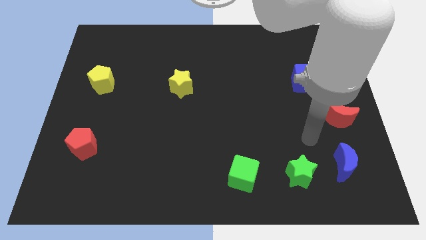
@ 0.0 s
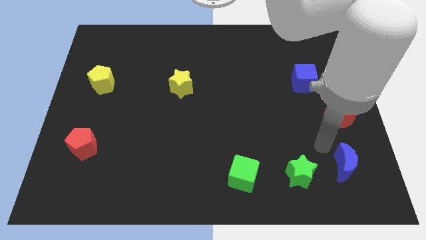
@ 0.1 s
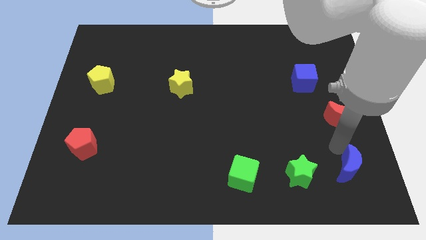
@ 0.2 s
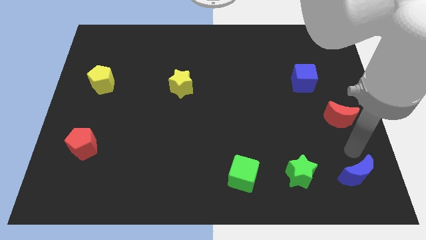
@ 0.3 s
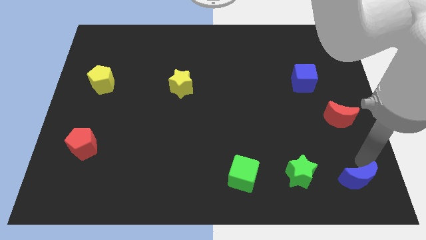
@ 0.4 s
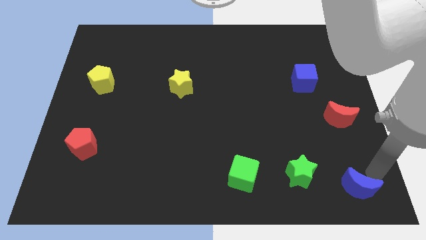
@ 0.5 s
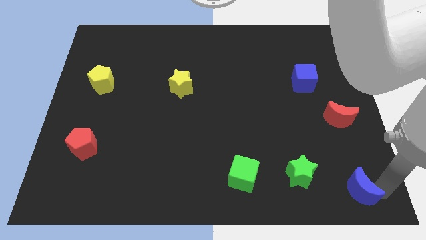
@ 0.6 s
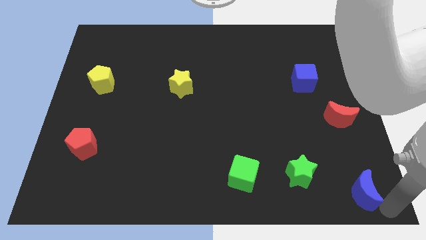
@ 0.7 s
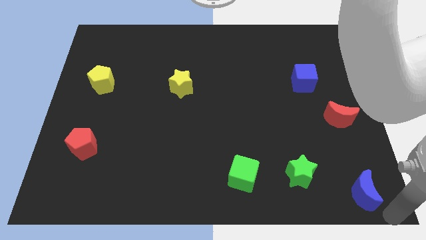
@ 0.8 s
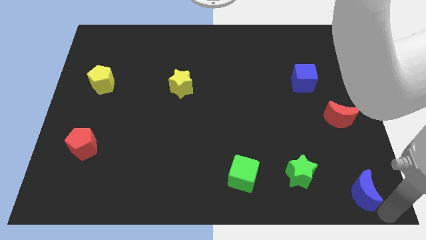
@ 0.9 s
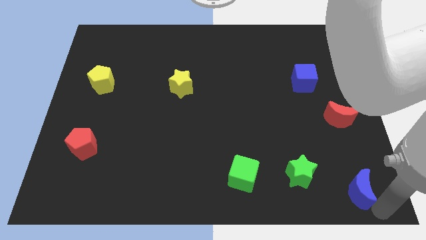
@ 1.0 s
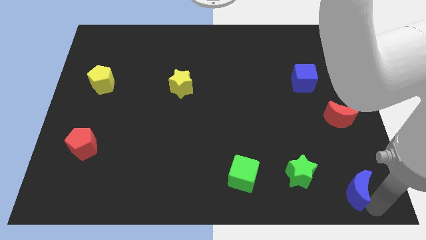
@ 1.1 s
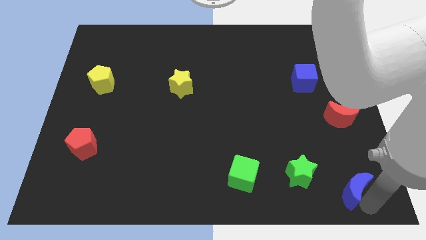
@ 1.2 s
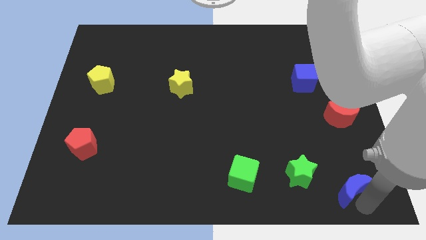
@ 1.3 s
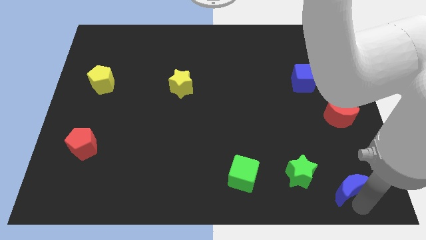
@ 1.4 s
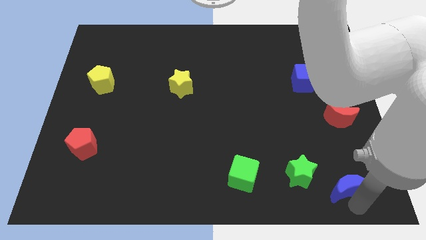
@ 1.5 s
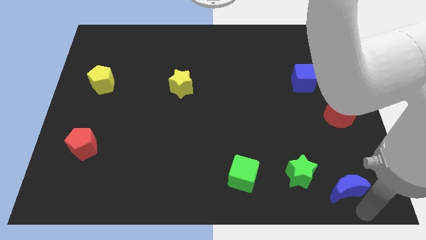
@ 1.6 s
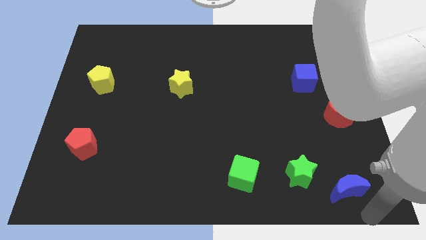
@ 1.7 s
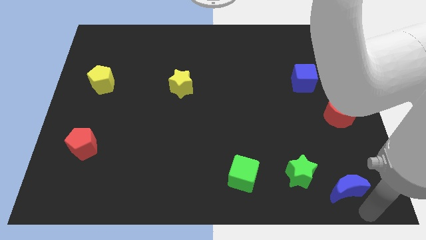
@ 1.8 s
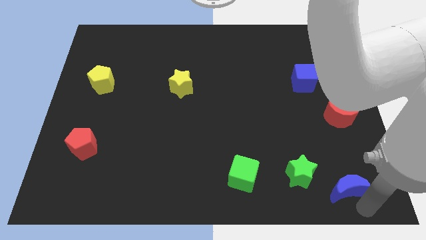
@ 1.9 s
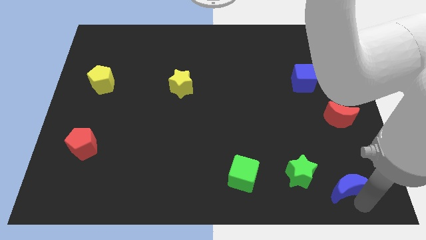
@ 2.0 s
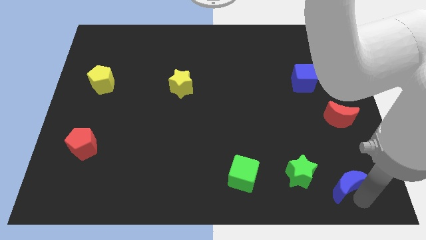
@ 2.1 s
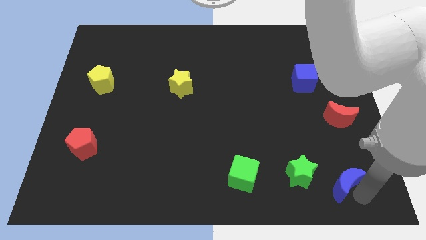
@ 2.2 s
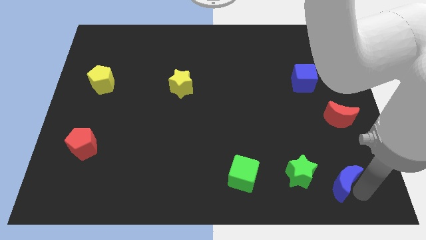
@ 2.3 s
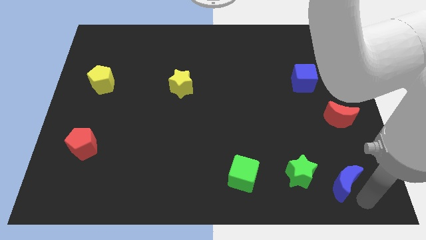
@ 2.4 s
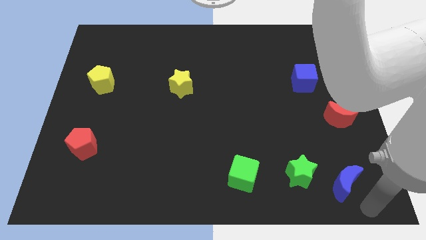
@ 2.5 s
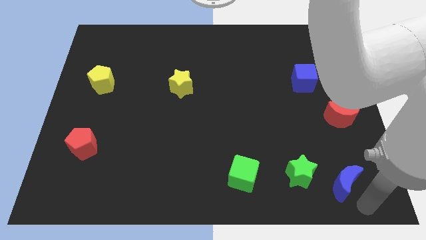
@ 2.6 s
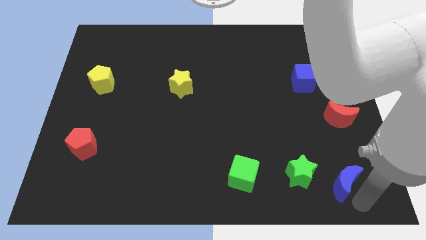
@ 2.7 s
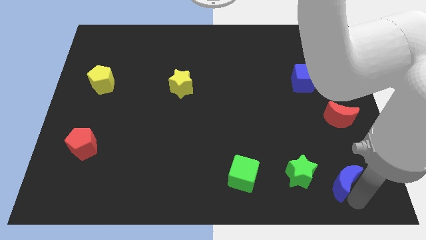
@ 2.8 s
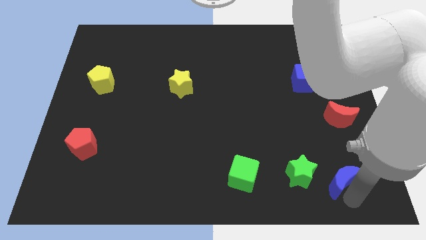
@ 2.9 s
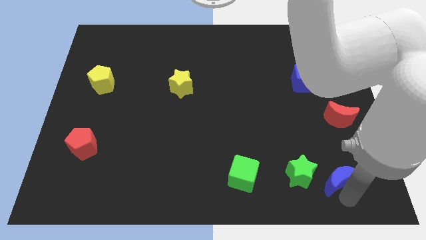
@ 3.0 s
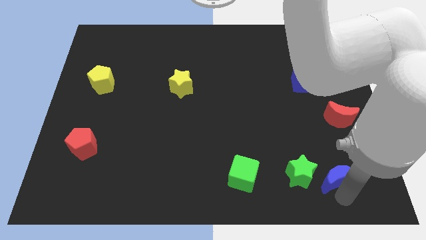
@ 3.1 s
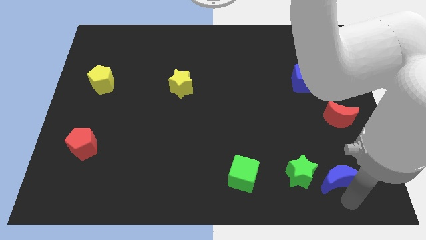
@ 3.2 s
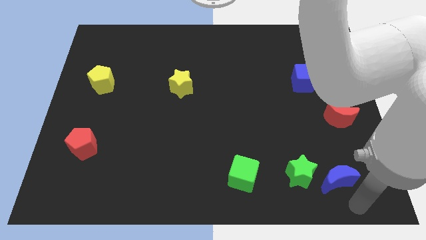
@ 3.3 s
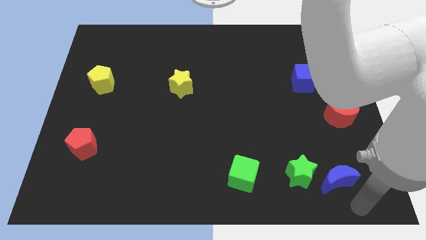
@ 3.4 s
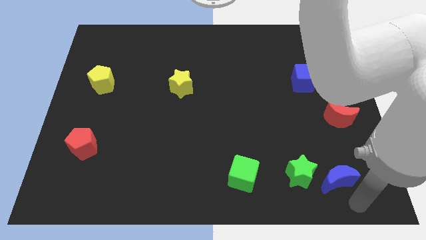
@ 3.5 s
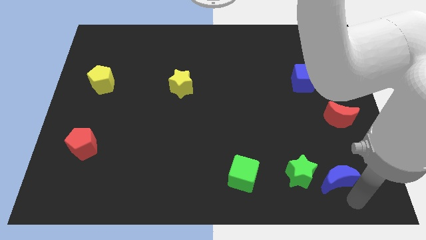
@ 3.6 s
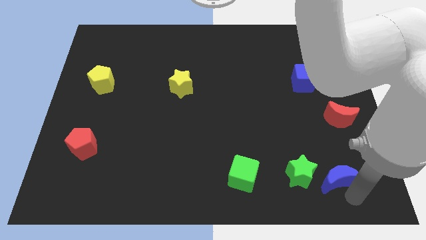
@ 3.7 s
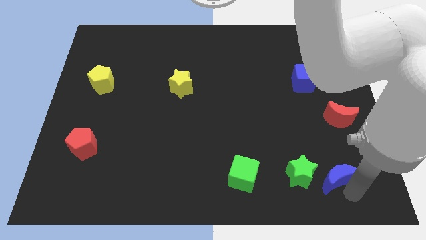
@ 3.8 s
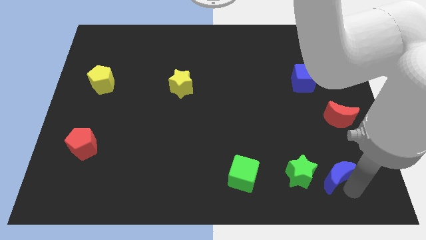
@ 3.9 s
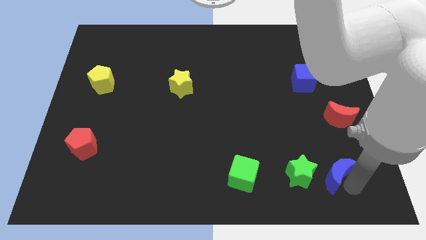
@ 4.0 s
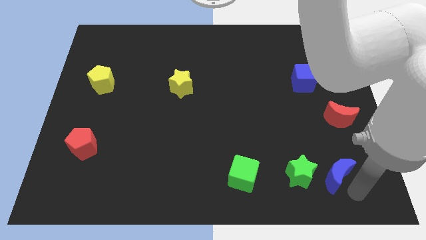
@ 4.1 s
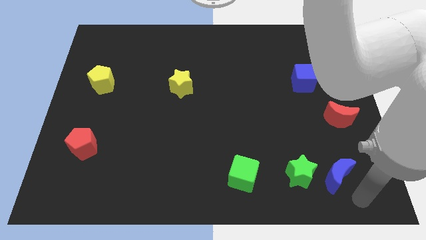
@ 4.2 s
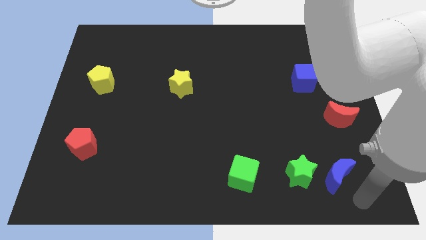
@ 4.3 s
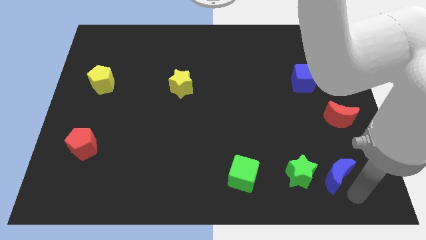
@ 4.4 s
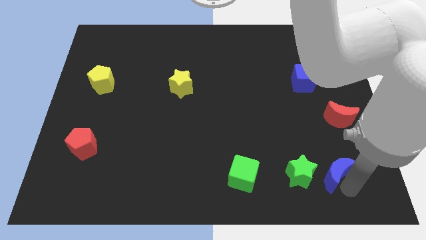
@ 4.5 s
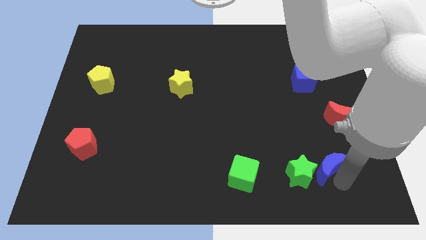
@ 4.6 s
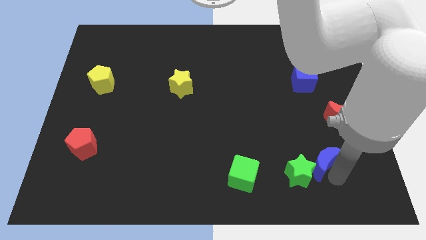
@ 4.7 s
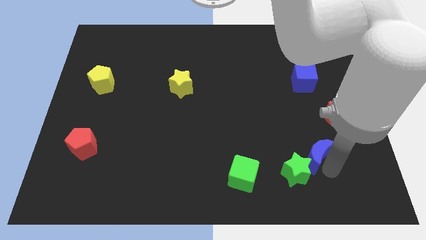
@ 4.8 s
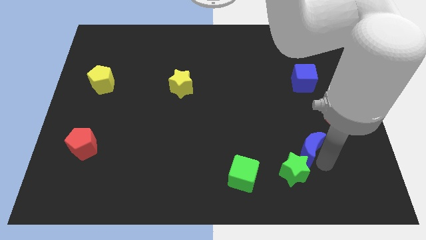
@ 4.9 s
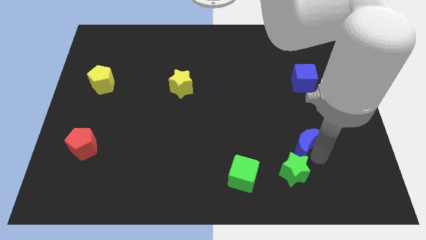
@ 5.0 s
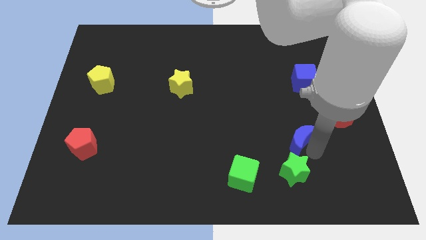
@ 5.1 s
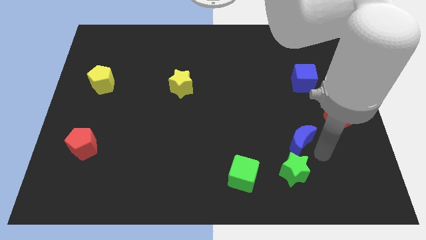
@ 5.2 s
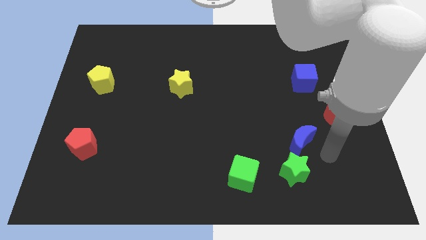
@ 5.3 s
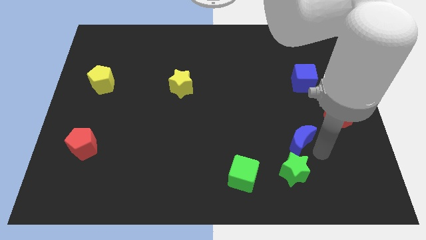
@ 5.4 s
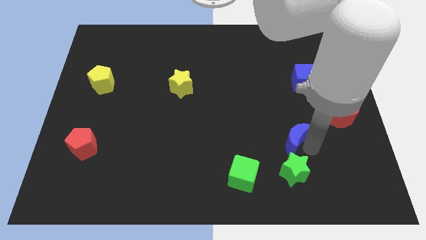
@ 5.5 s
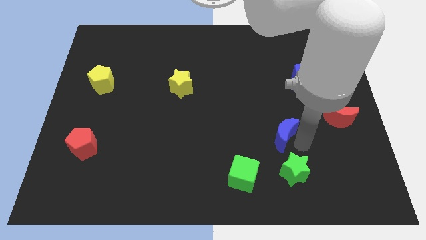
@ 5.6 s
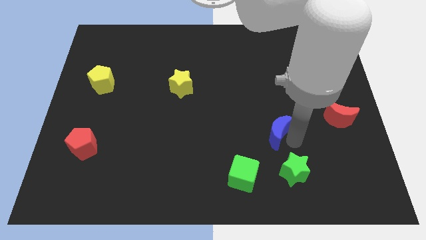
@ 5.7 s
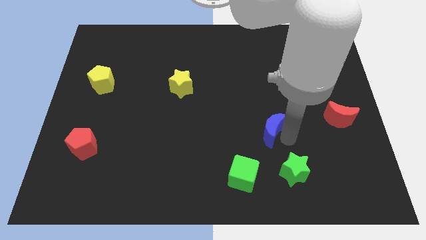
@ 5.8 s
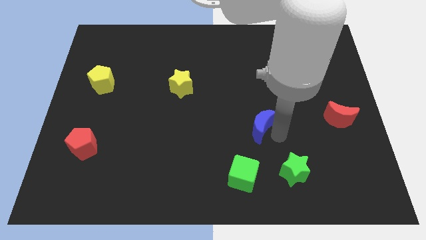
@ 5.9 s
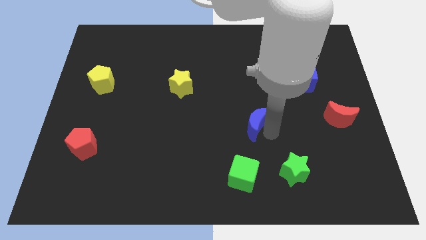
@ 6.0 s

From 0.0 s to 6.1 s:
push the blue moon to the center of the board

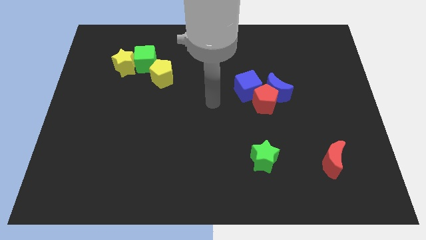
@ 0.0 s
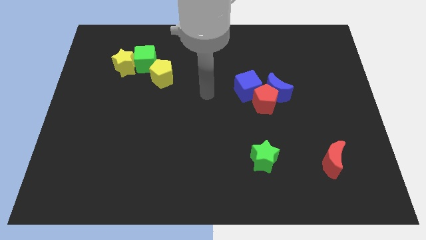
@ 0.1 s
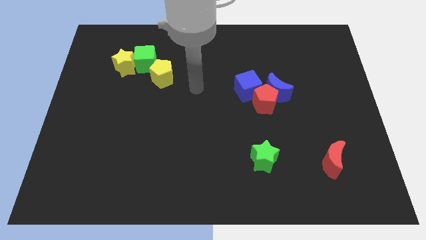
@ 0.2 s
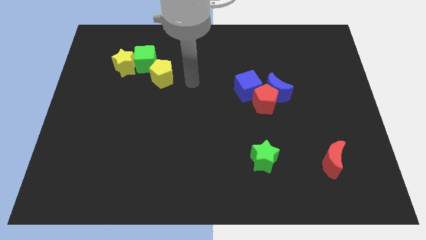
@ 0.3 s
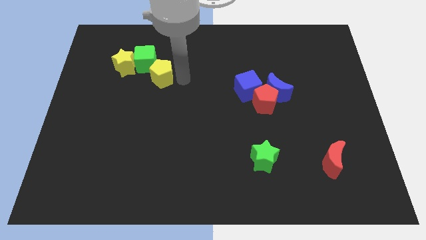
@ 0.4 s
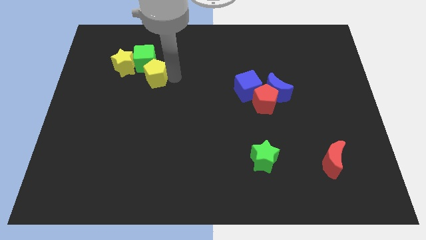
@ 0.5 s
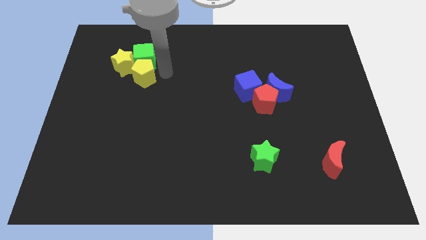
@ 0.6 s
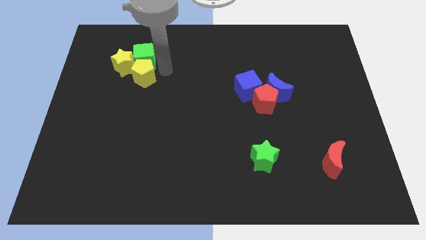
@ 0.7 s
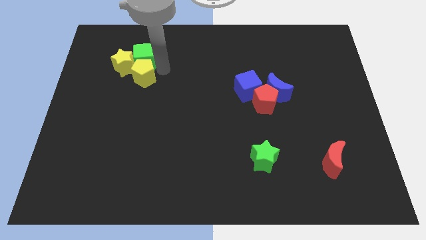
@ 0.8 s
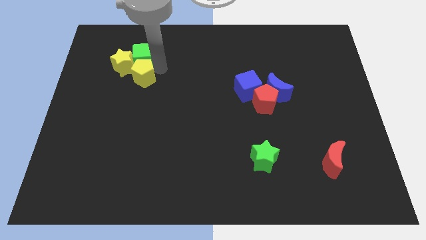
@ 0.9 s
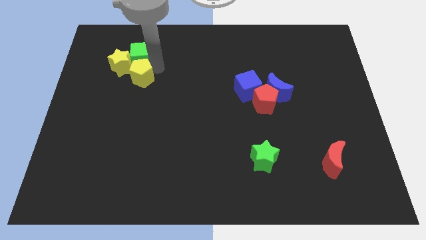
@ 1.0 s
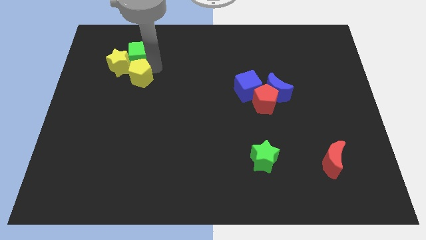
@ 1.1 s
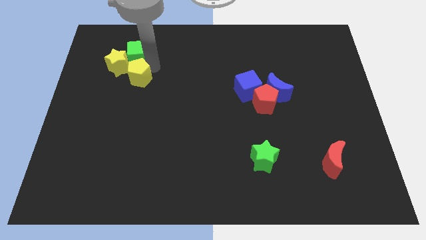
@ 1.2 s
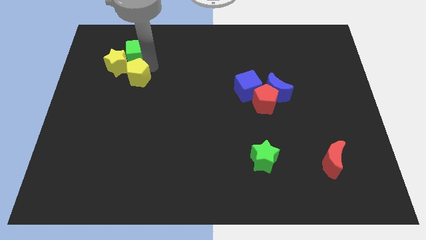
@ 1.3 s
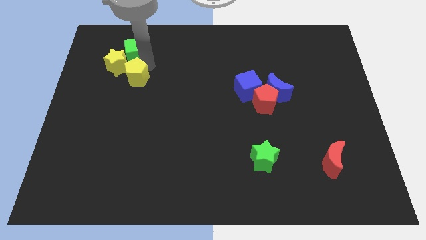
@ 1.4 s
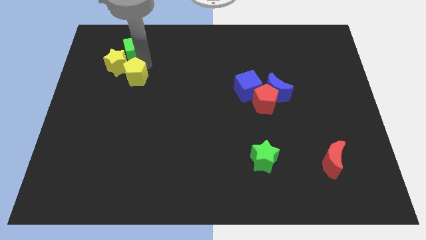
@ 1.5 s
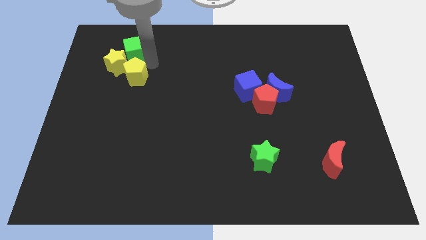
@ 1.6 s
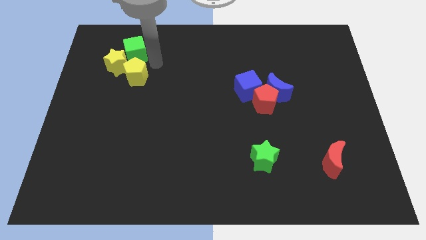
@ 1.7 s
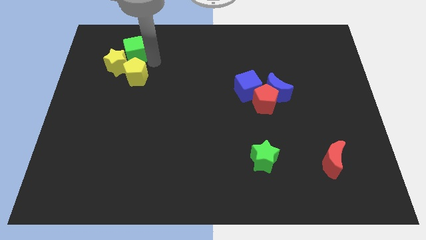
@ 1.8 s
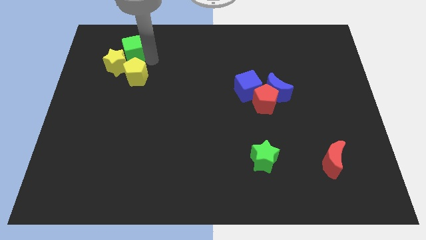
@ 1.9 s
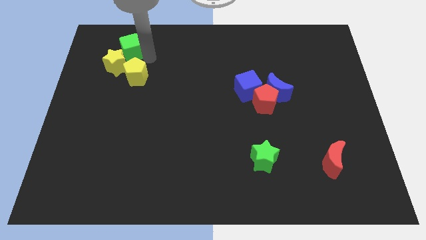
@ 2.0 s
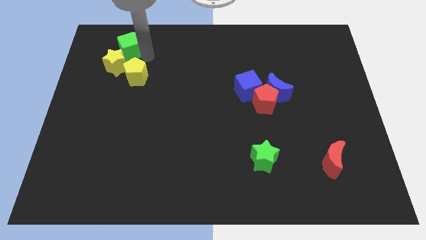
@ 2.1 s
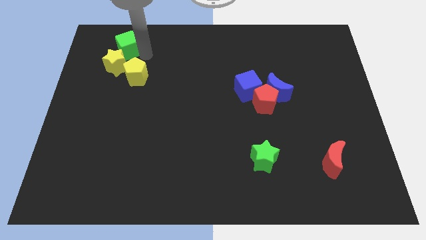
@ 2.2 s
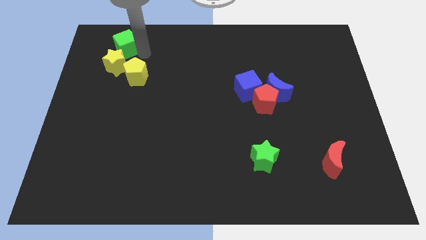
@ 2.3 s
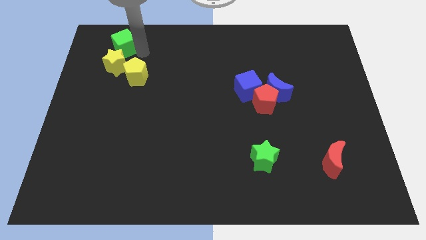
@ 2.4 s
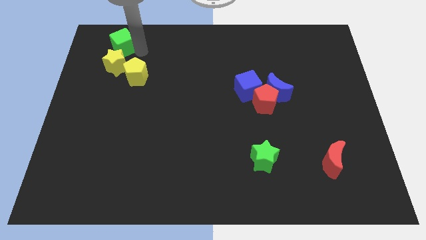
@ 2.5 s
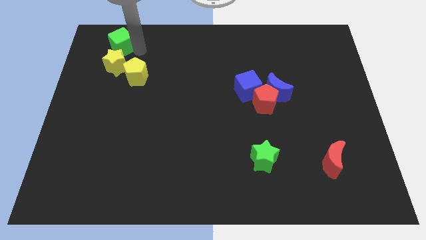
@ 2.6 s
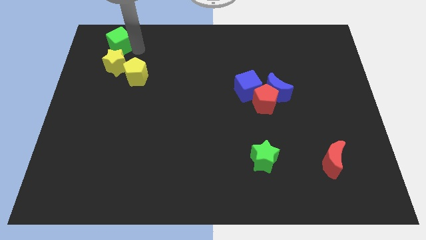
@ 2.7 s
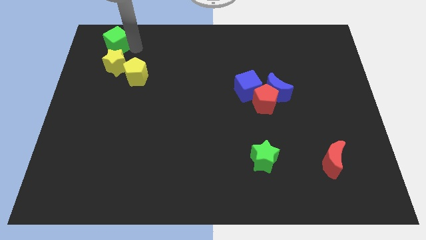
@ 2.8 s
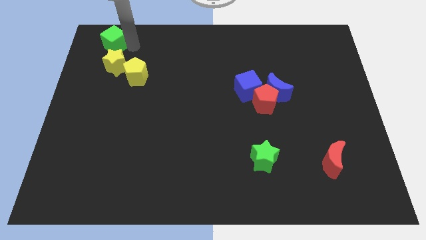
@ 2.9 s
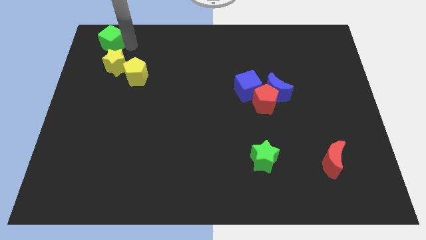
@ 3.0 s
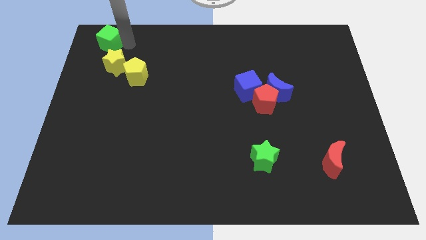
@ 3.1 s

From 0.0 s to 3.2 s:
move the green cube to the top left
